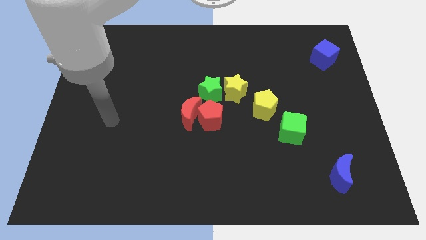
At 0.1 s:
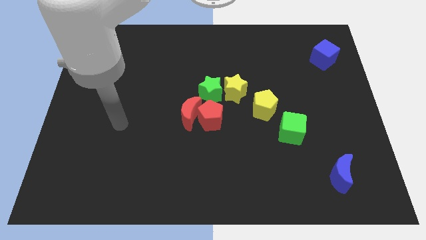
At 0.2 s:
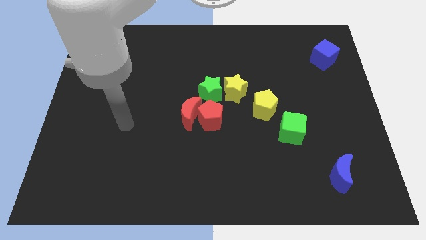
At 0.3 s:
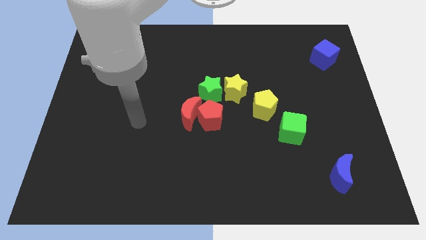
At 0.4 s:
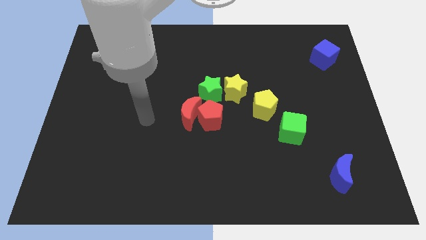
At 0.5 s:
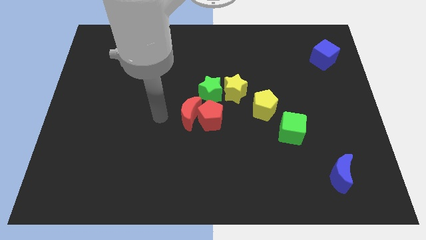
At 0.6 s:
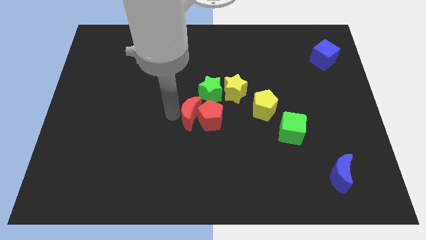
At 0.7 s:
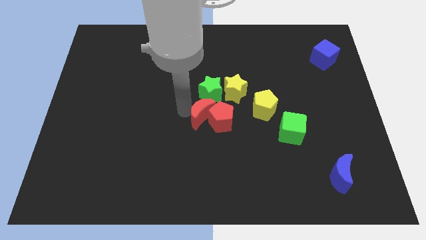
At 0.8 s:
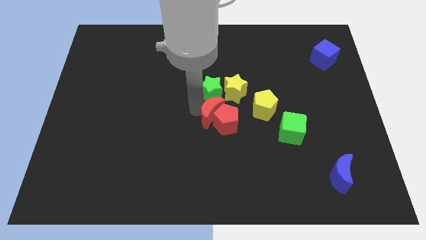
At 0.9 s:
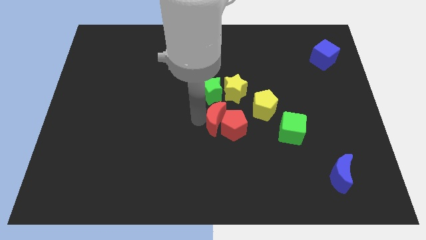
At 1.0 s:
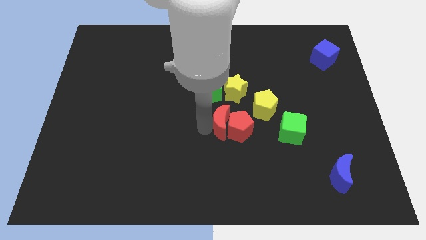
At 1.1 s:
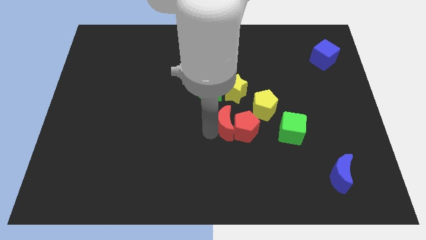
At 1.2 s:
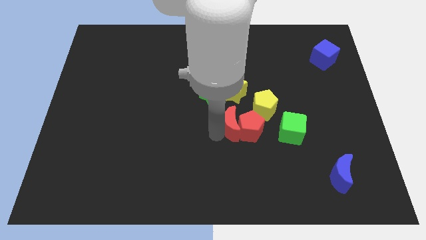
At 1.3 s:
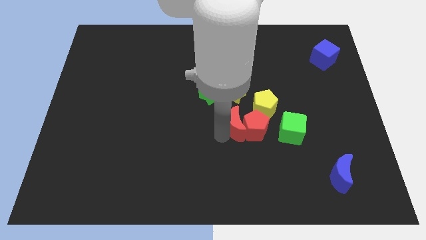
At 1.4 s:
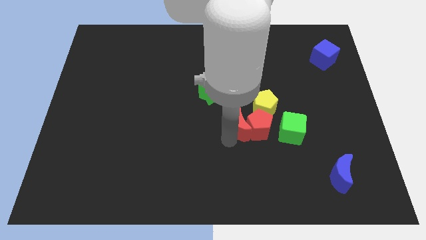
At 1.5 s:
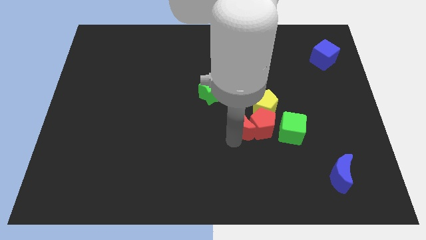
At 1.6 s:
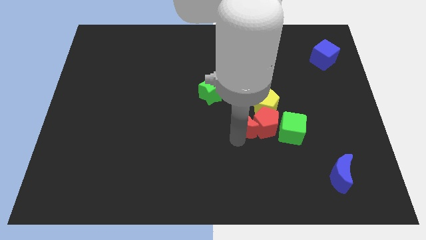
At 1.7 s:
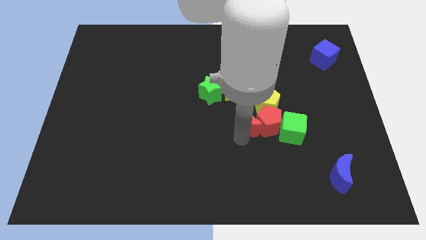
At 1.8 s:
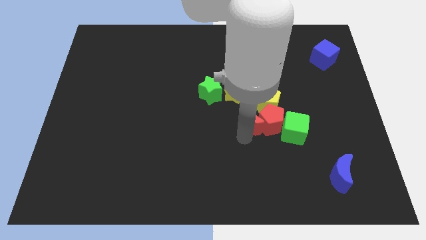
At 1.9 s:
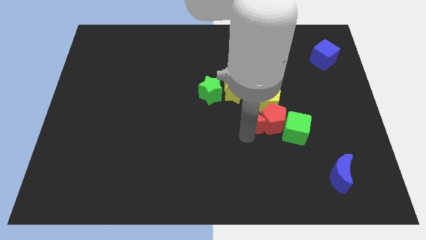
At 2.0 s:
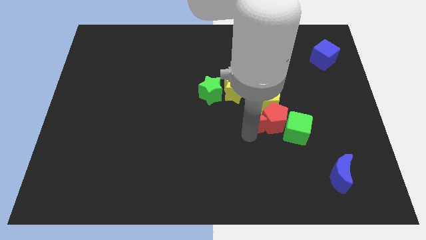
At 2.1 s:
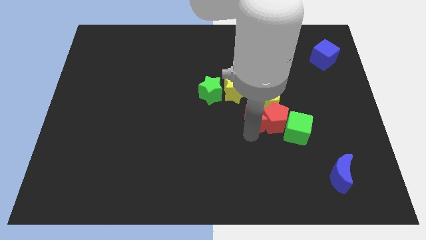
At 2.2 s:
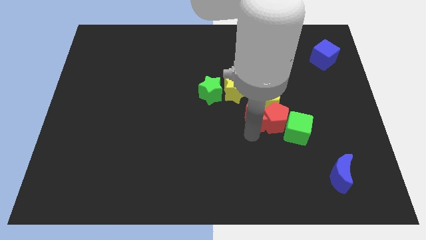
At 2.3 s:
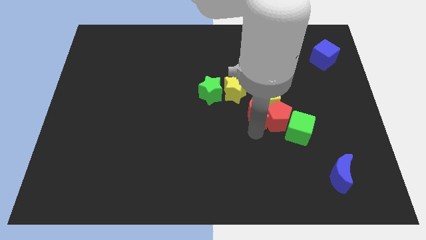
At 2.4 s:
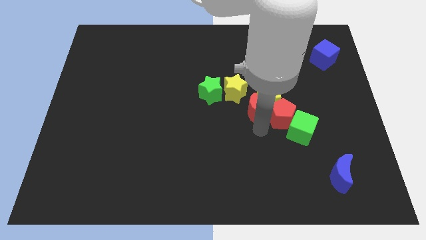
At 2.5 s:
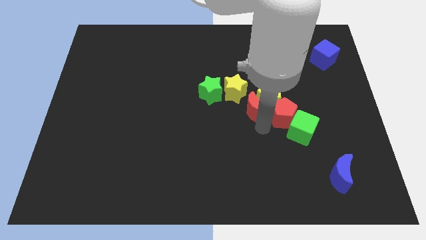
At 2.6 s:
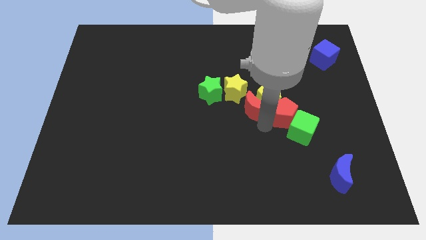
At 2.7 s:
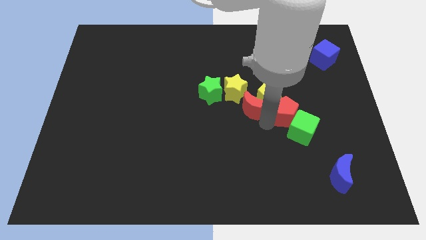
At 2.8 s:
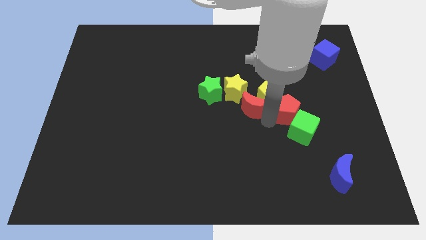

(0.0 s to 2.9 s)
move the red pentagon up and then right a bit

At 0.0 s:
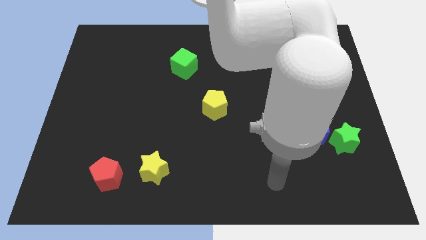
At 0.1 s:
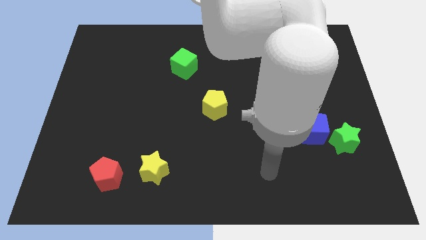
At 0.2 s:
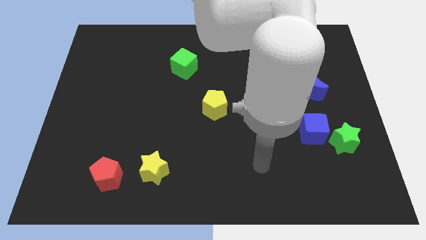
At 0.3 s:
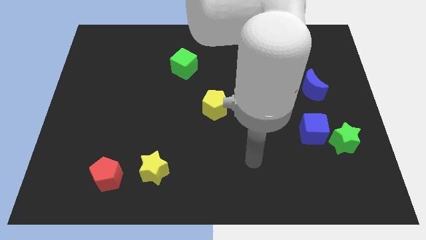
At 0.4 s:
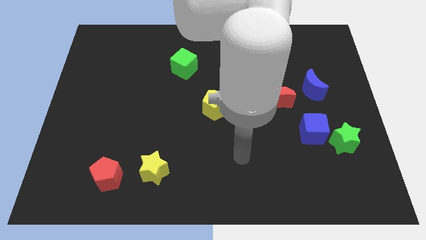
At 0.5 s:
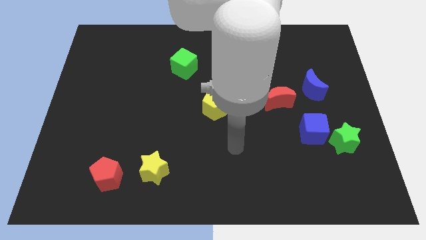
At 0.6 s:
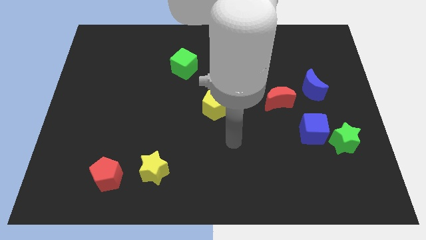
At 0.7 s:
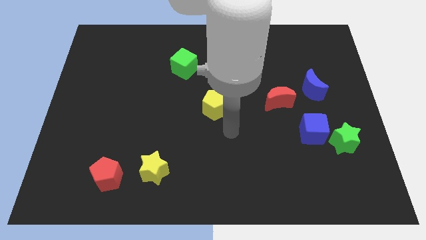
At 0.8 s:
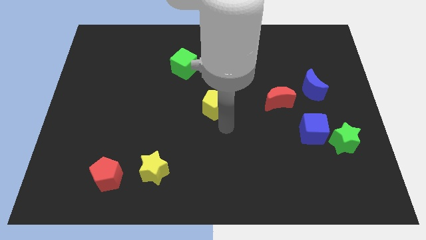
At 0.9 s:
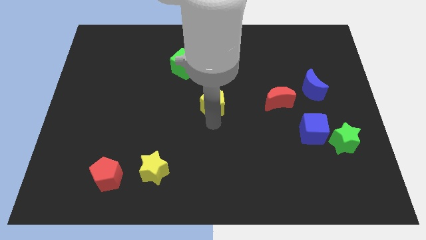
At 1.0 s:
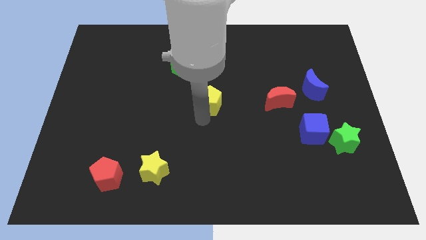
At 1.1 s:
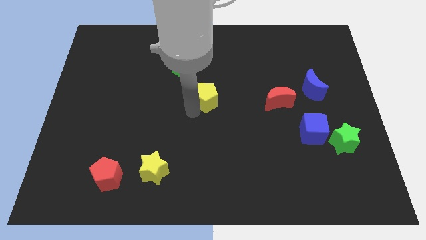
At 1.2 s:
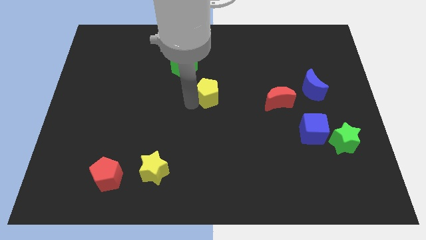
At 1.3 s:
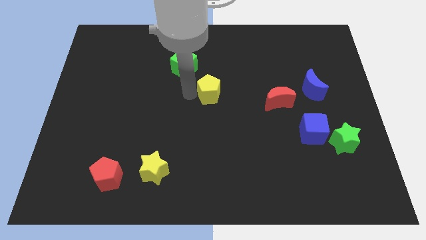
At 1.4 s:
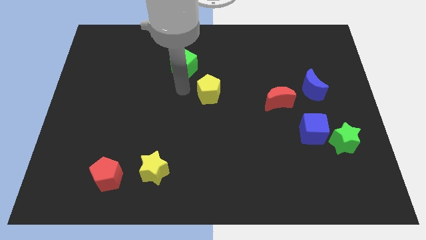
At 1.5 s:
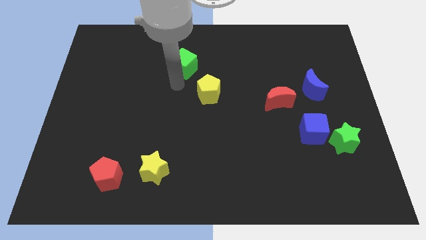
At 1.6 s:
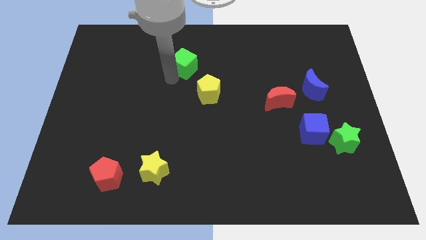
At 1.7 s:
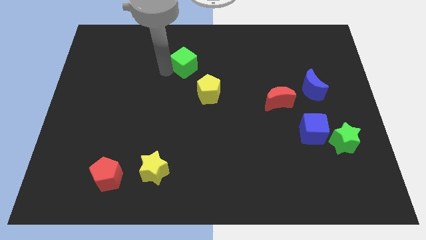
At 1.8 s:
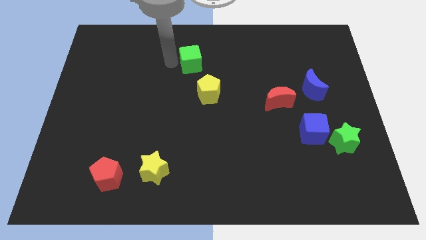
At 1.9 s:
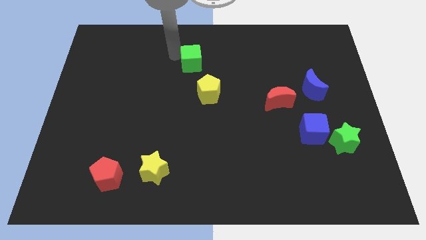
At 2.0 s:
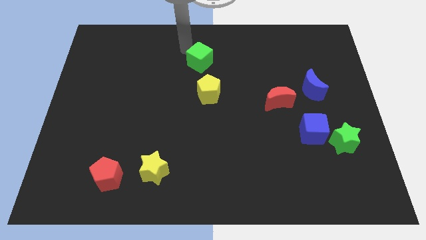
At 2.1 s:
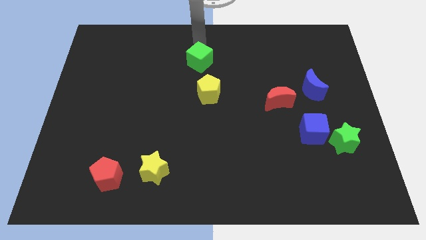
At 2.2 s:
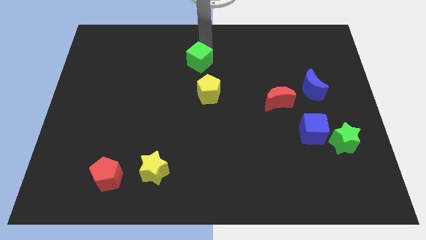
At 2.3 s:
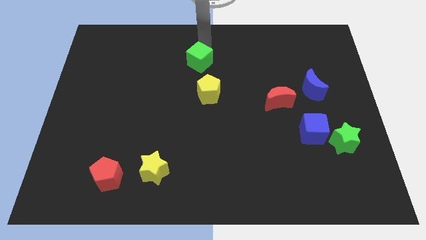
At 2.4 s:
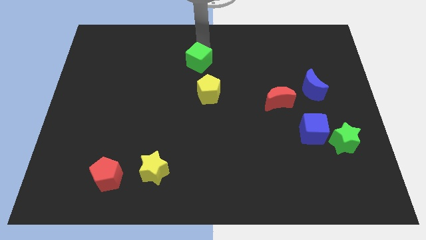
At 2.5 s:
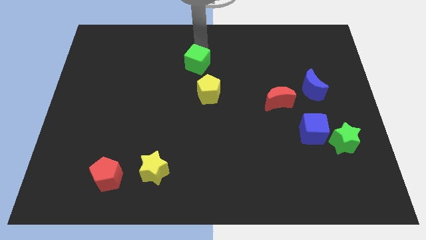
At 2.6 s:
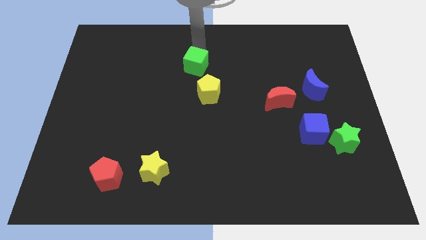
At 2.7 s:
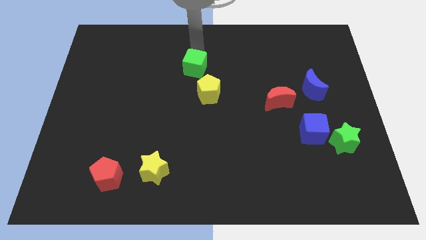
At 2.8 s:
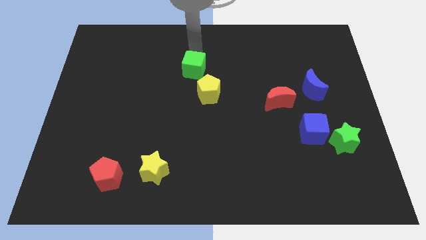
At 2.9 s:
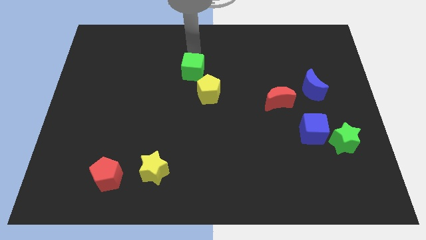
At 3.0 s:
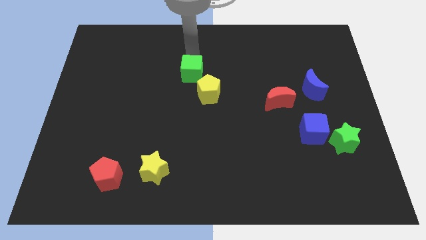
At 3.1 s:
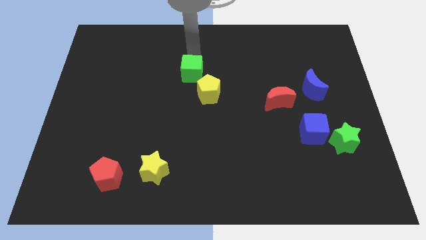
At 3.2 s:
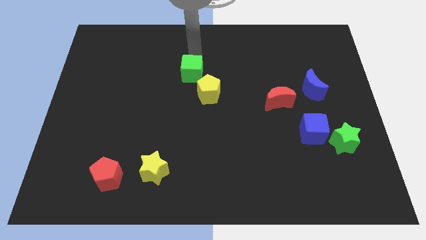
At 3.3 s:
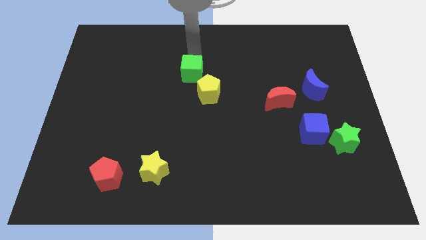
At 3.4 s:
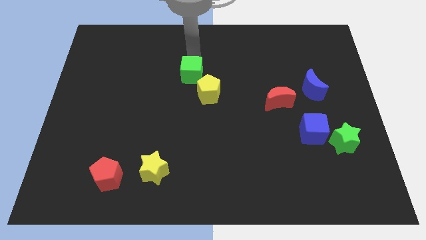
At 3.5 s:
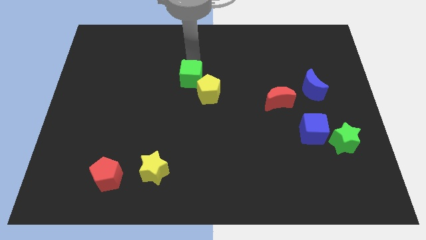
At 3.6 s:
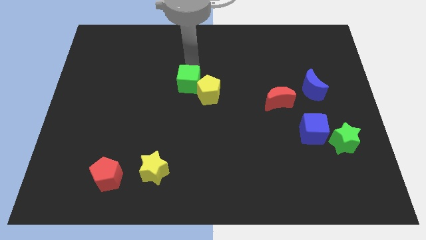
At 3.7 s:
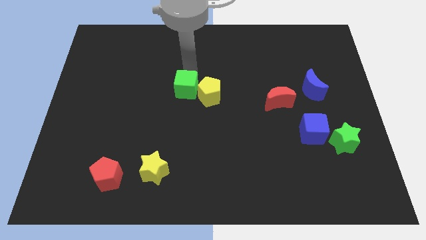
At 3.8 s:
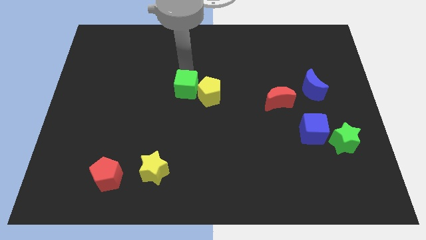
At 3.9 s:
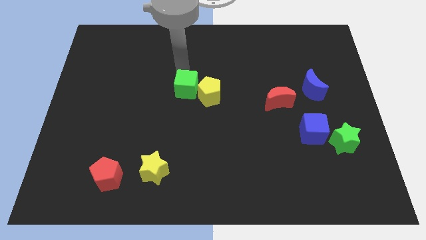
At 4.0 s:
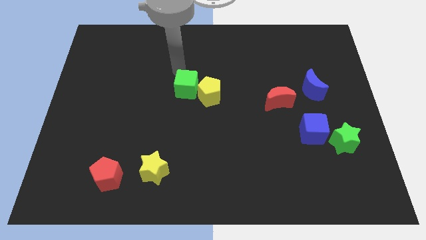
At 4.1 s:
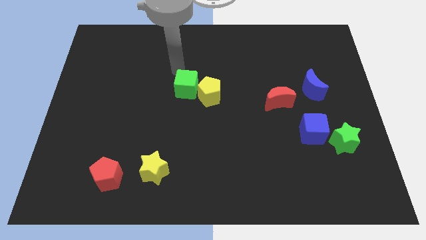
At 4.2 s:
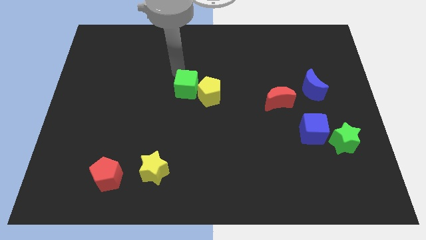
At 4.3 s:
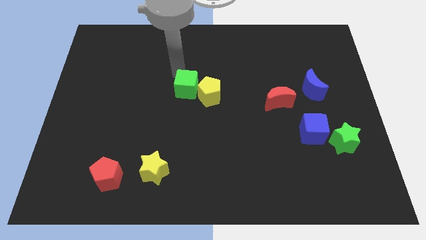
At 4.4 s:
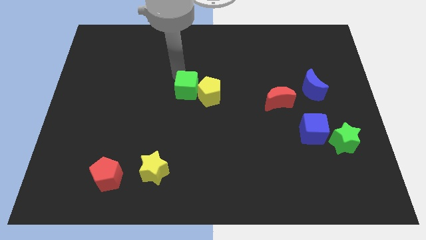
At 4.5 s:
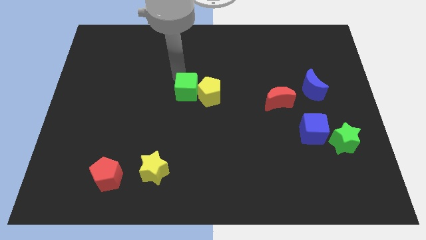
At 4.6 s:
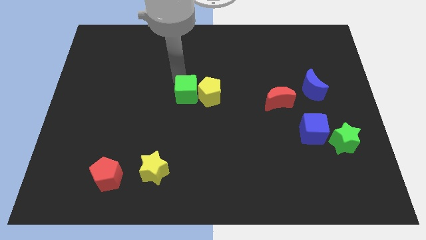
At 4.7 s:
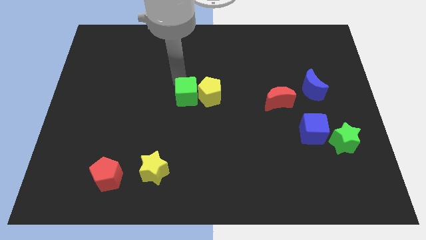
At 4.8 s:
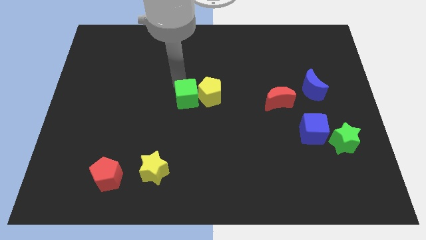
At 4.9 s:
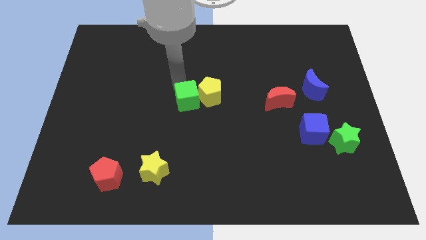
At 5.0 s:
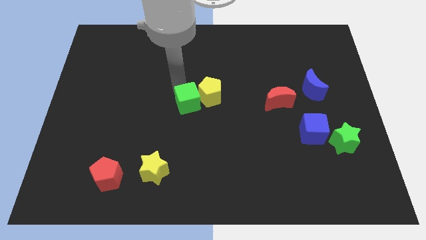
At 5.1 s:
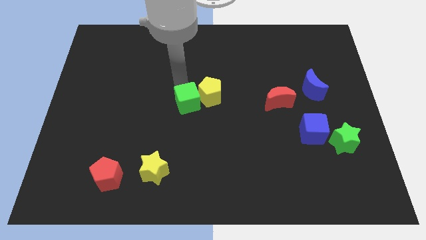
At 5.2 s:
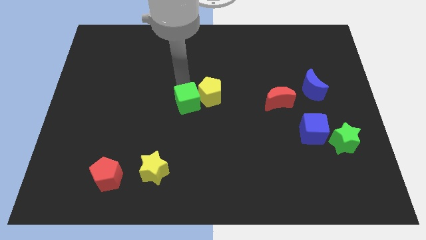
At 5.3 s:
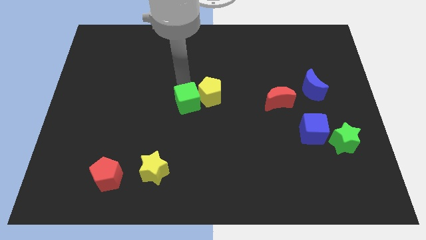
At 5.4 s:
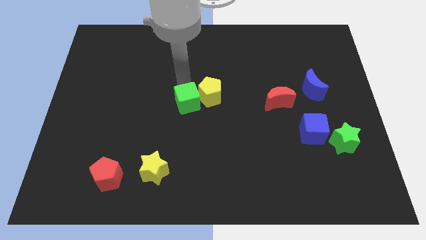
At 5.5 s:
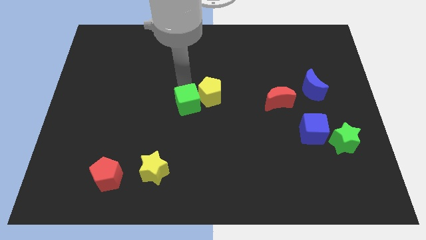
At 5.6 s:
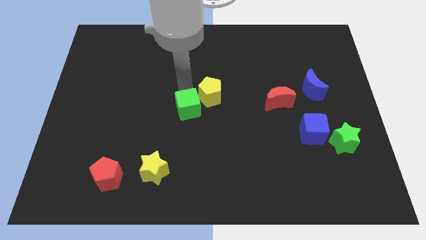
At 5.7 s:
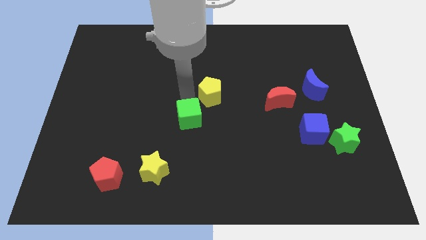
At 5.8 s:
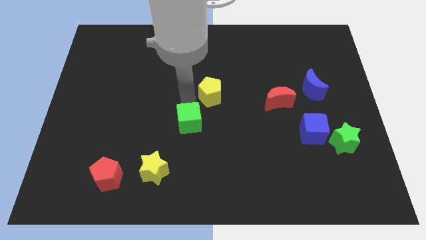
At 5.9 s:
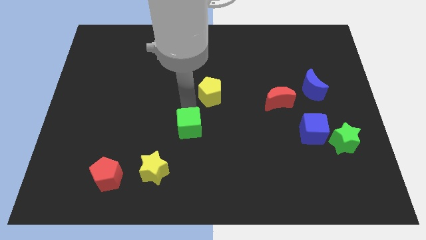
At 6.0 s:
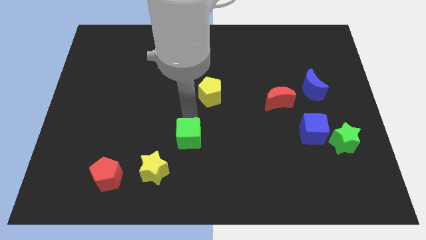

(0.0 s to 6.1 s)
slide the green cube downwards
